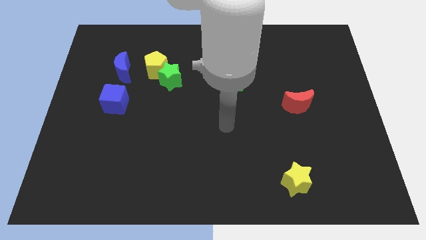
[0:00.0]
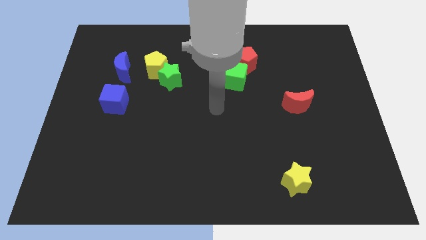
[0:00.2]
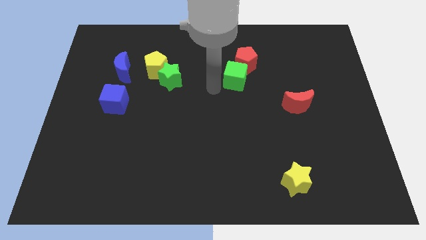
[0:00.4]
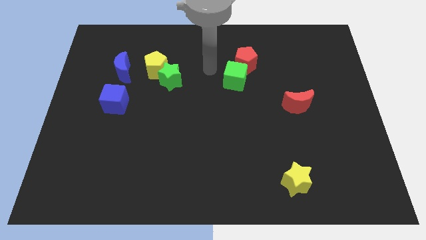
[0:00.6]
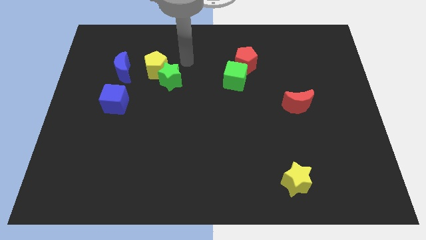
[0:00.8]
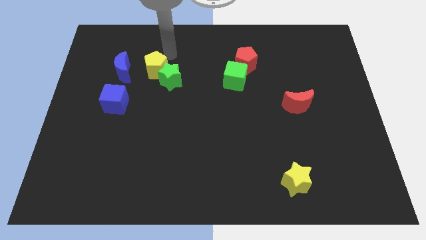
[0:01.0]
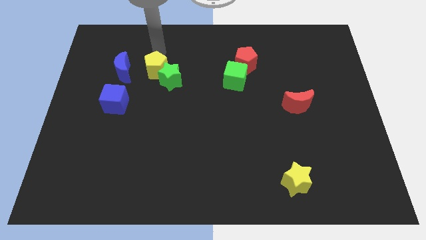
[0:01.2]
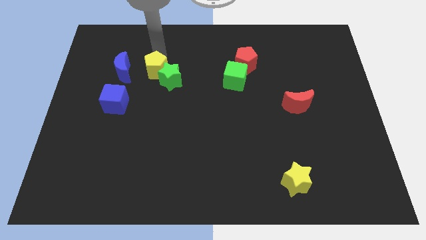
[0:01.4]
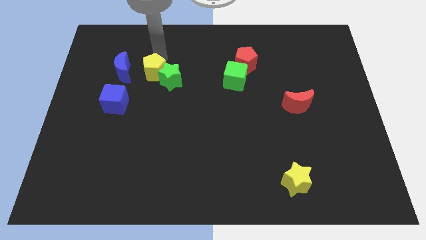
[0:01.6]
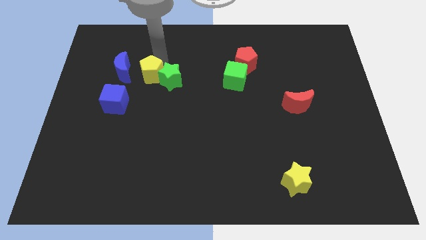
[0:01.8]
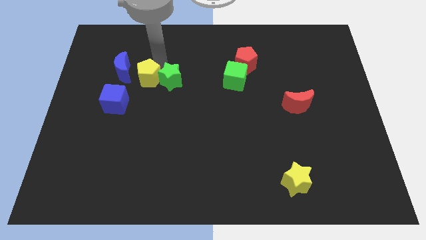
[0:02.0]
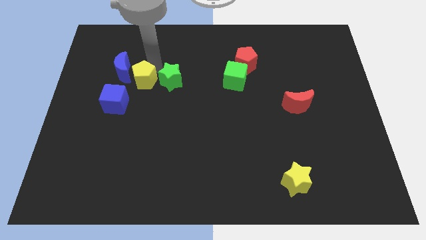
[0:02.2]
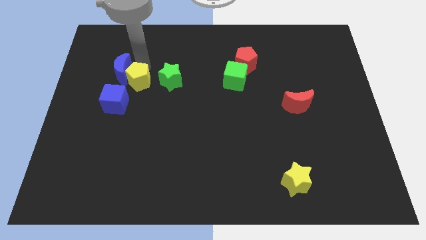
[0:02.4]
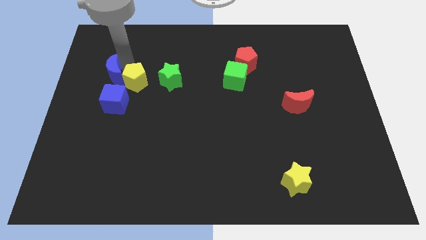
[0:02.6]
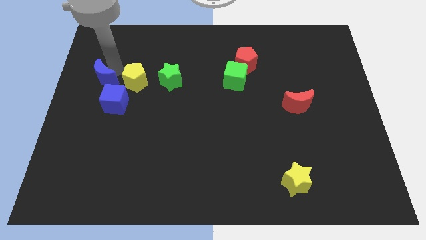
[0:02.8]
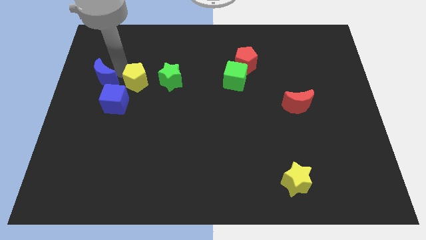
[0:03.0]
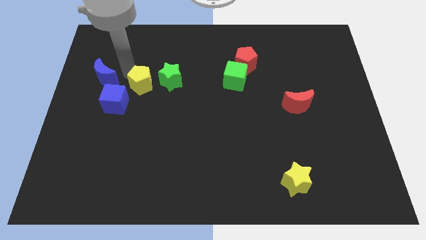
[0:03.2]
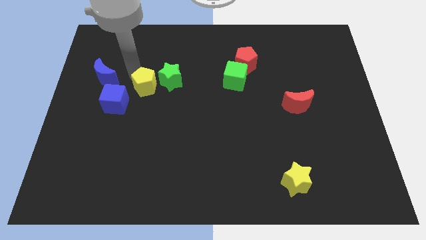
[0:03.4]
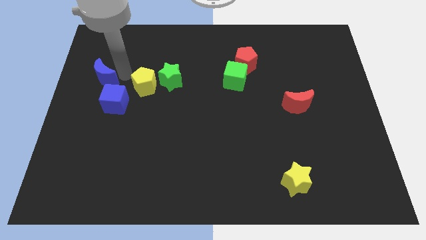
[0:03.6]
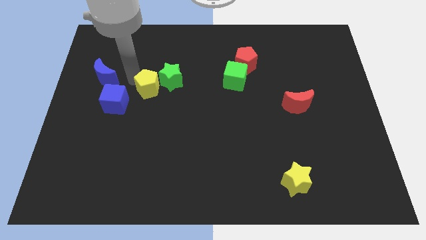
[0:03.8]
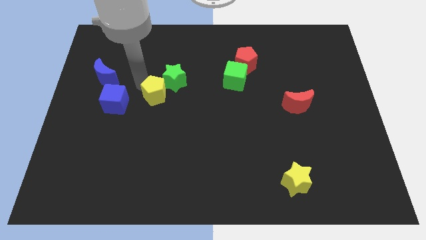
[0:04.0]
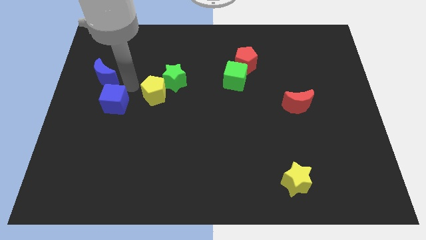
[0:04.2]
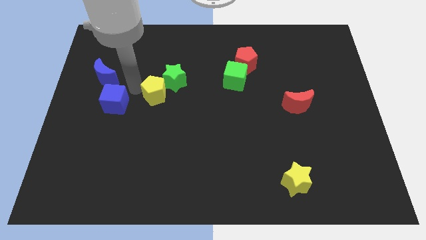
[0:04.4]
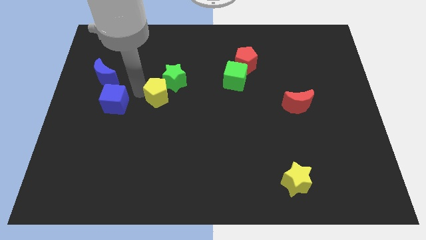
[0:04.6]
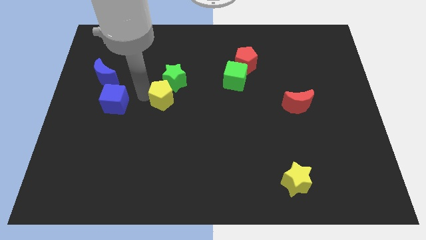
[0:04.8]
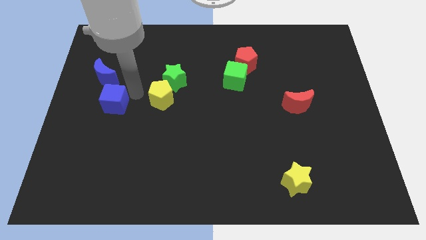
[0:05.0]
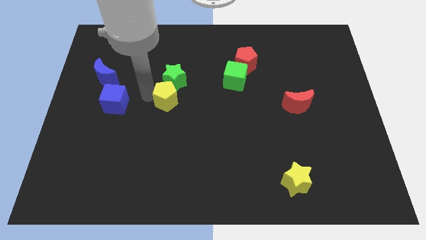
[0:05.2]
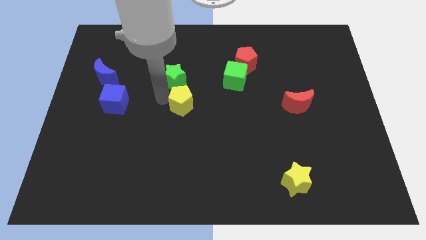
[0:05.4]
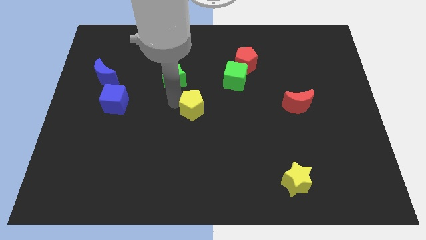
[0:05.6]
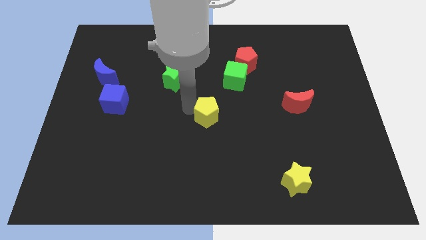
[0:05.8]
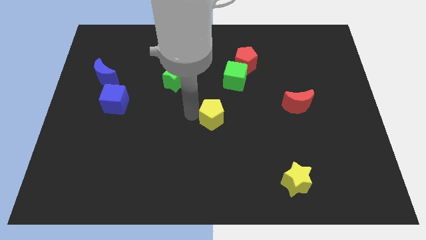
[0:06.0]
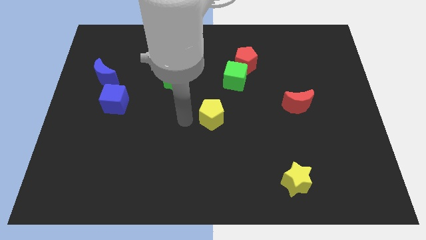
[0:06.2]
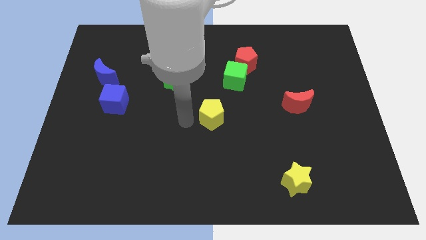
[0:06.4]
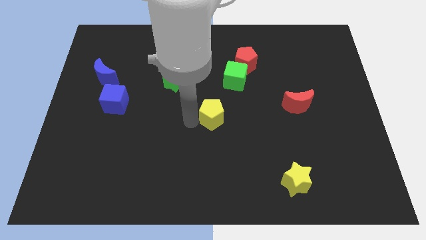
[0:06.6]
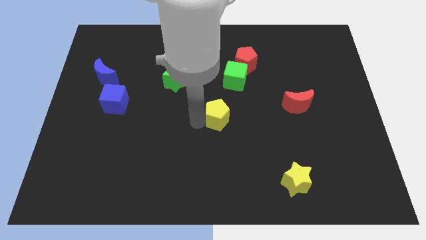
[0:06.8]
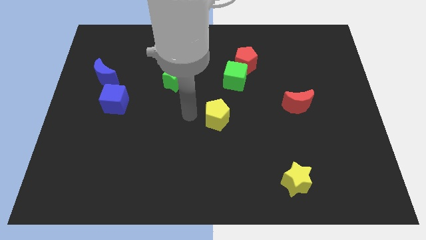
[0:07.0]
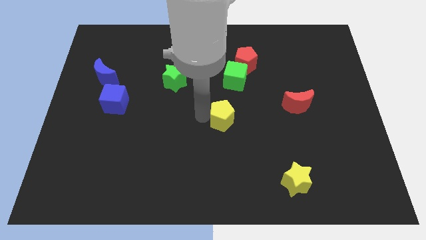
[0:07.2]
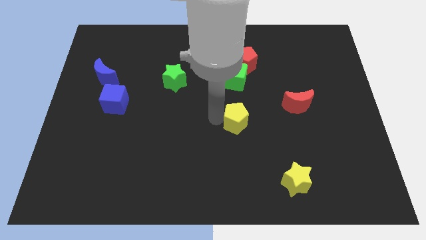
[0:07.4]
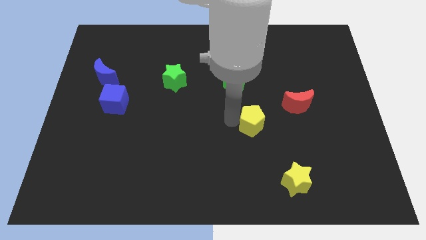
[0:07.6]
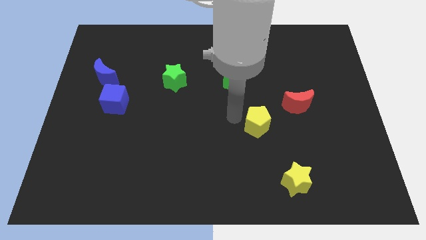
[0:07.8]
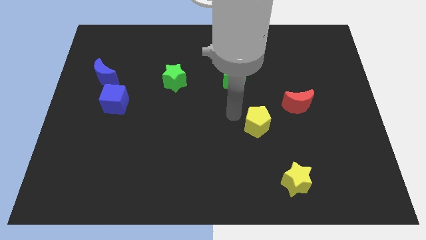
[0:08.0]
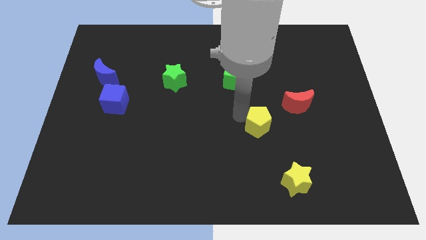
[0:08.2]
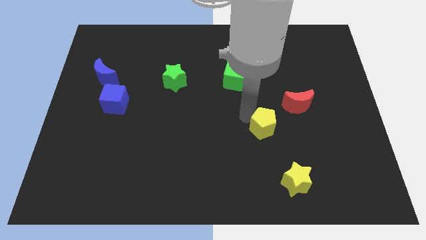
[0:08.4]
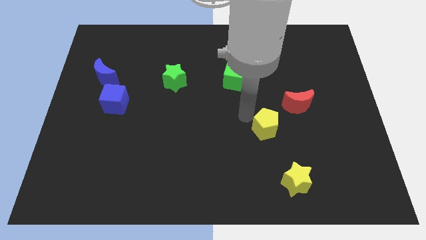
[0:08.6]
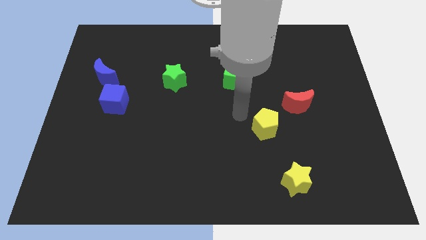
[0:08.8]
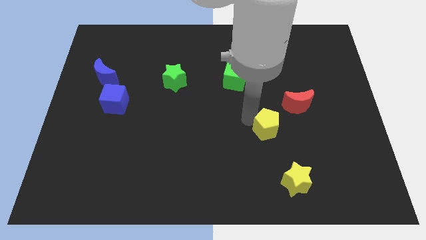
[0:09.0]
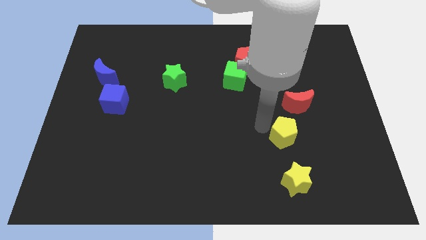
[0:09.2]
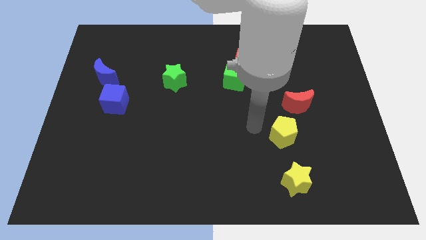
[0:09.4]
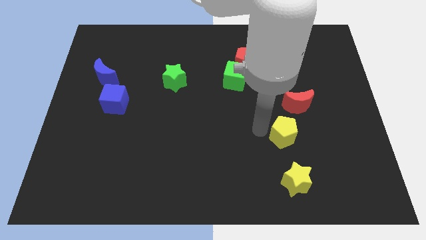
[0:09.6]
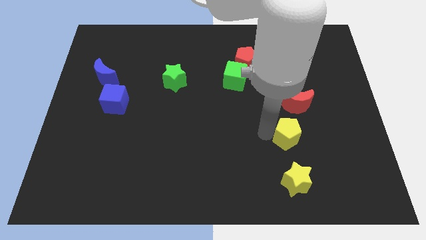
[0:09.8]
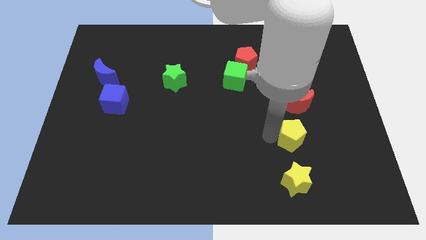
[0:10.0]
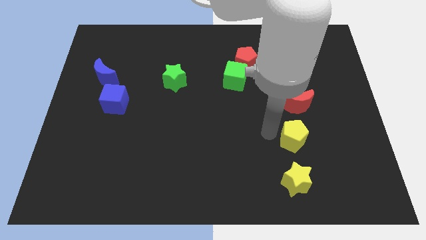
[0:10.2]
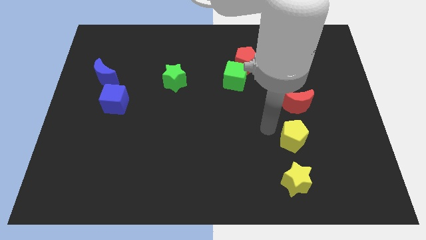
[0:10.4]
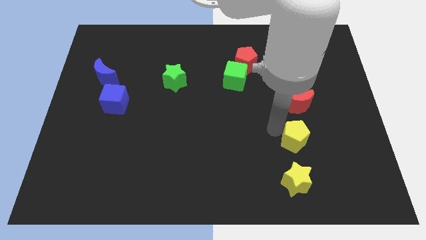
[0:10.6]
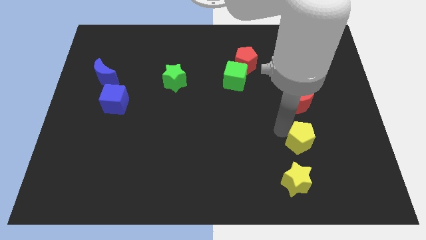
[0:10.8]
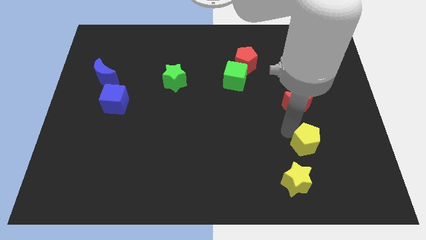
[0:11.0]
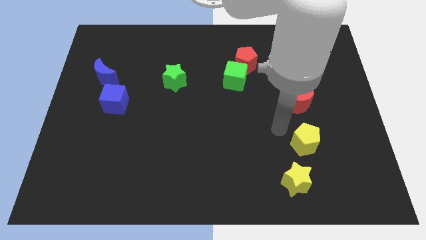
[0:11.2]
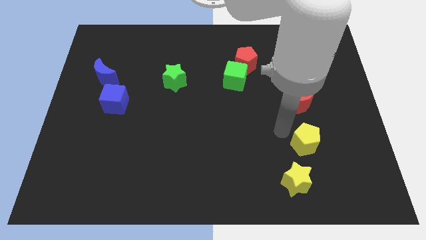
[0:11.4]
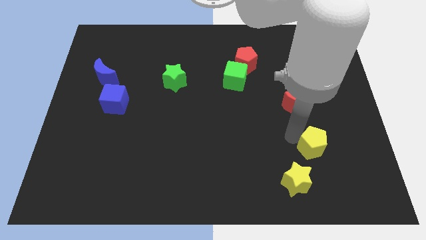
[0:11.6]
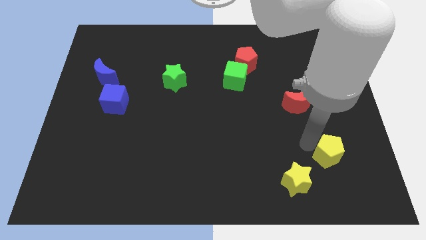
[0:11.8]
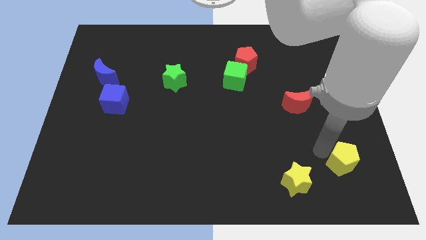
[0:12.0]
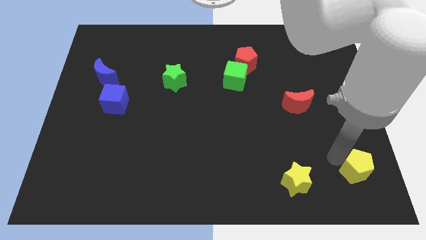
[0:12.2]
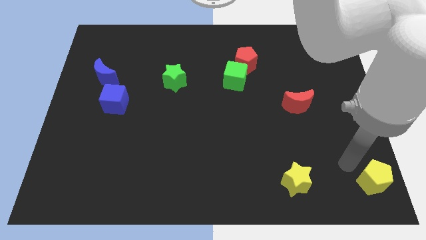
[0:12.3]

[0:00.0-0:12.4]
move the yellow pentagon to the bottom right of the board

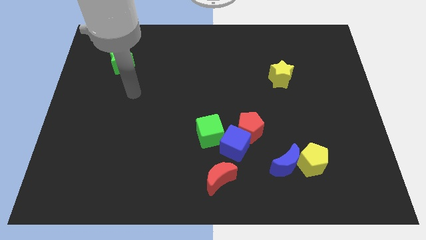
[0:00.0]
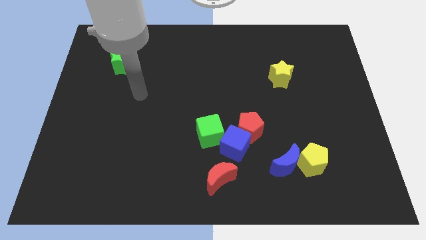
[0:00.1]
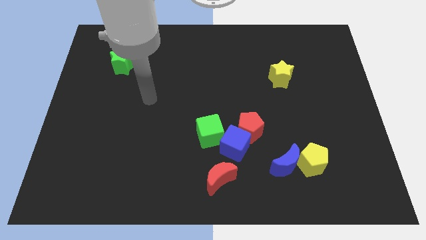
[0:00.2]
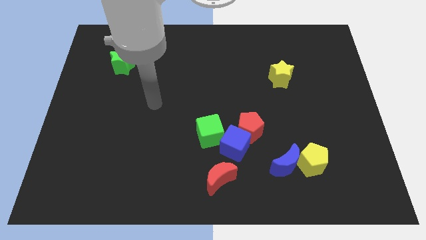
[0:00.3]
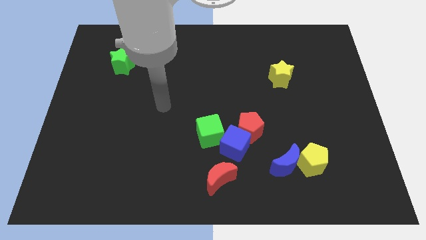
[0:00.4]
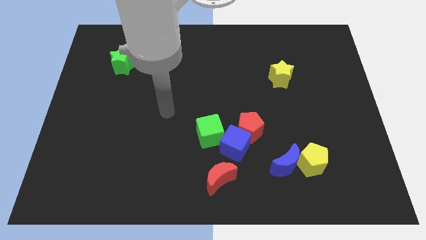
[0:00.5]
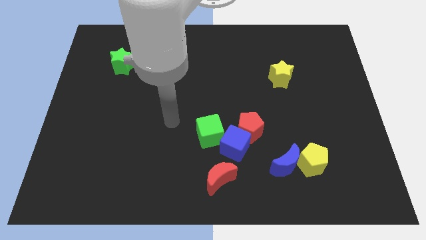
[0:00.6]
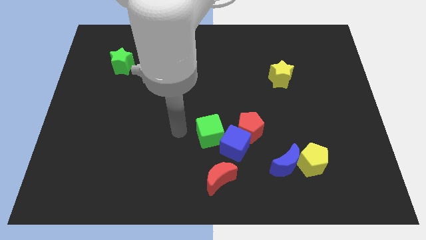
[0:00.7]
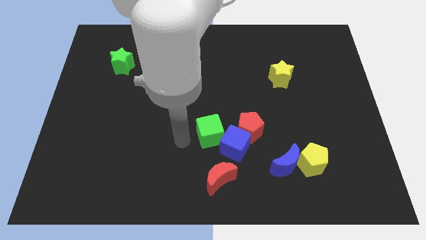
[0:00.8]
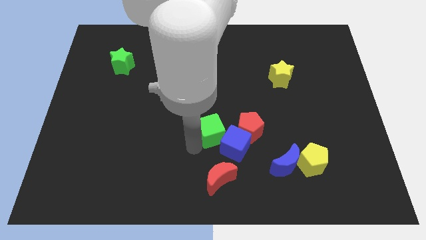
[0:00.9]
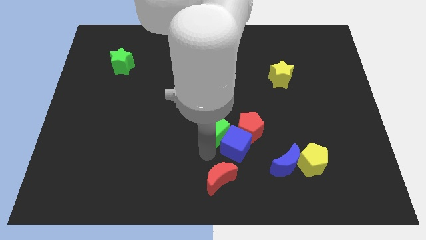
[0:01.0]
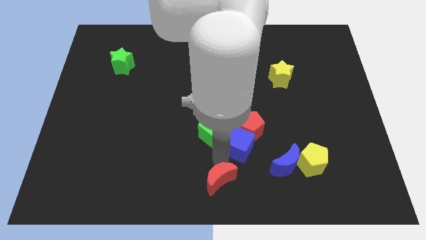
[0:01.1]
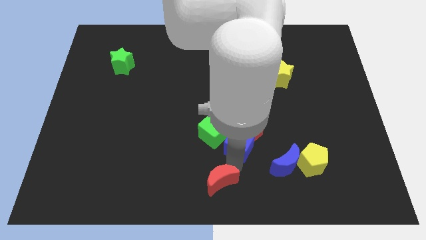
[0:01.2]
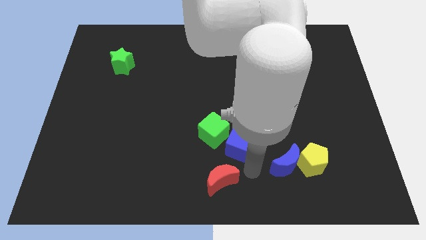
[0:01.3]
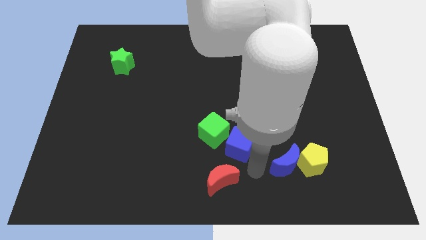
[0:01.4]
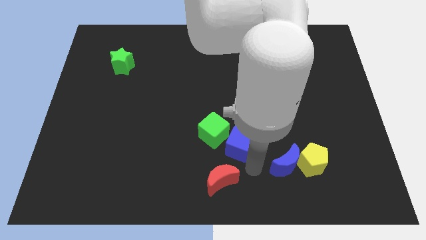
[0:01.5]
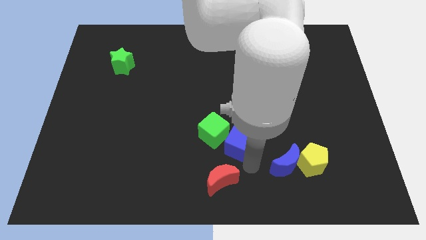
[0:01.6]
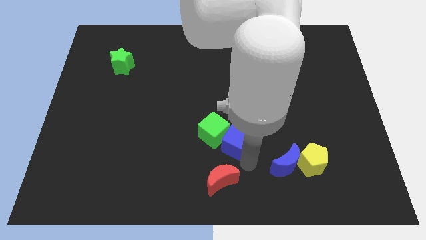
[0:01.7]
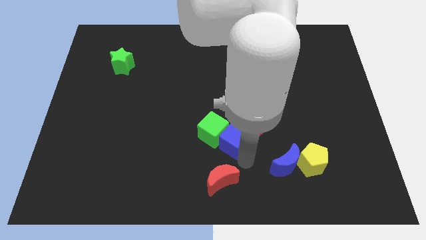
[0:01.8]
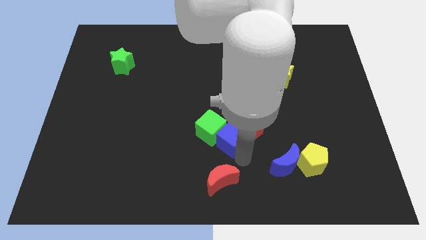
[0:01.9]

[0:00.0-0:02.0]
push the blue cube to the middle of the board
